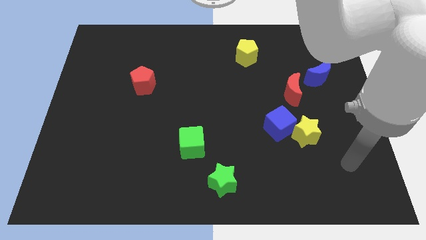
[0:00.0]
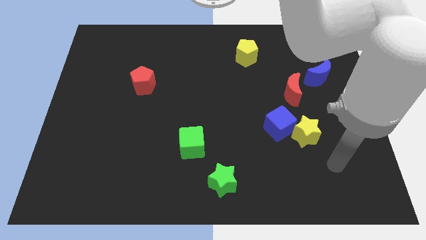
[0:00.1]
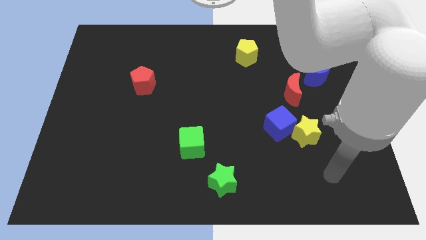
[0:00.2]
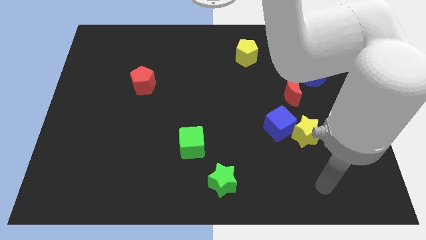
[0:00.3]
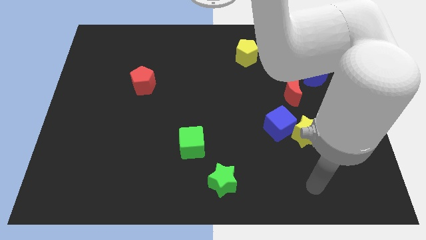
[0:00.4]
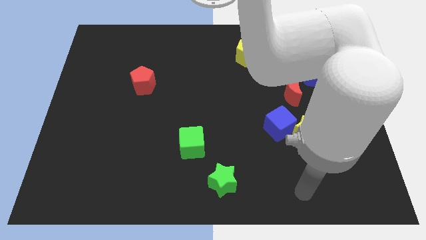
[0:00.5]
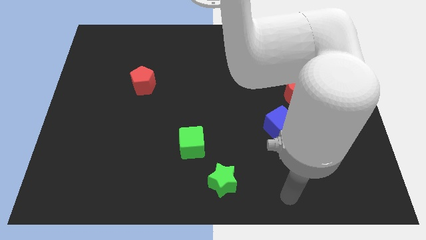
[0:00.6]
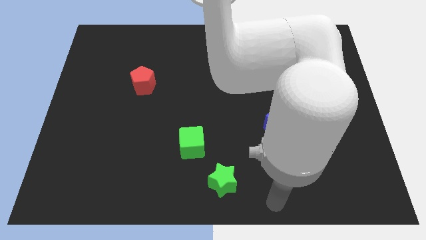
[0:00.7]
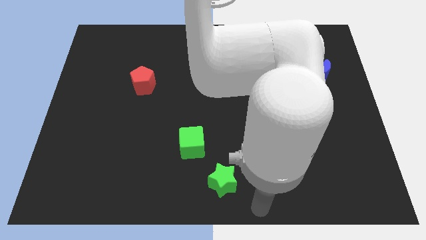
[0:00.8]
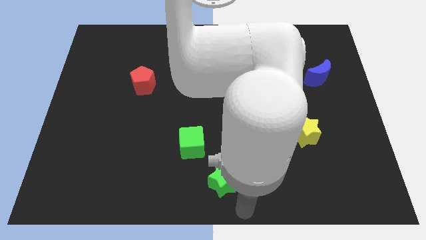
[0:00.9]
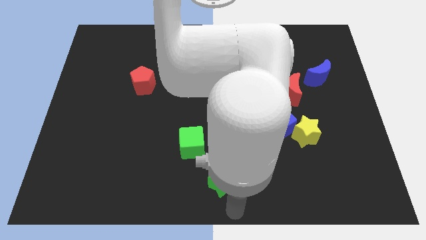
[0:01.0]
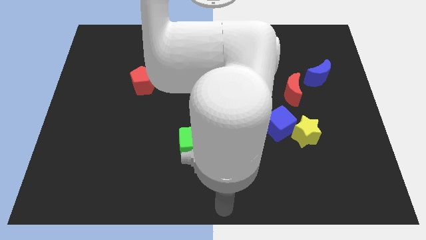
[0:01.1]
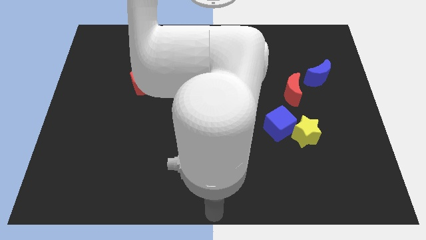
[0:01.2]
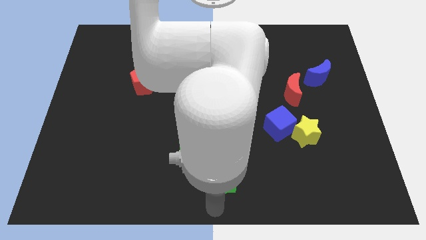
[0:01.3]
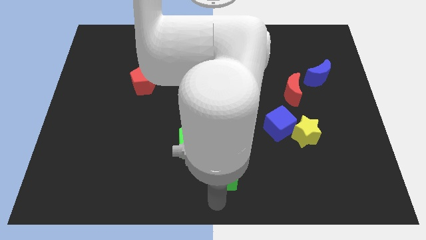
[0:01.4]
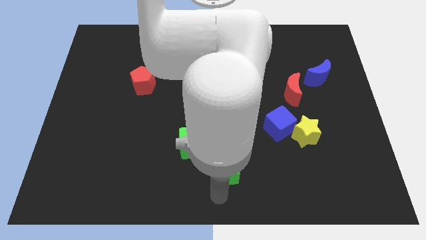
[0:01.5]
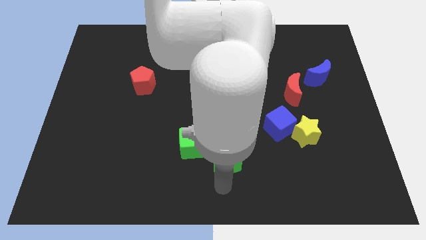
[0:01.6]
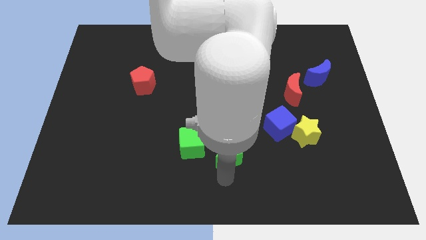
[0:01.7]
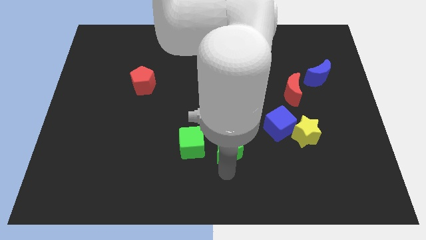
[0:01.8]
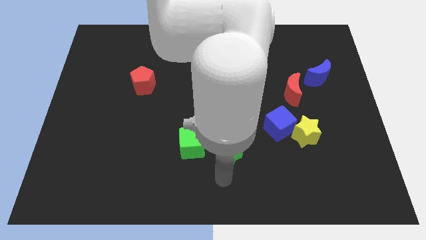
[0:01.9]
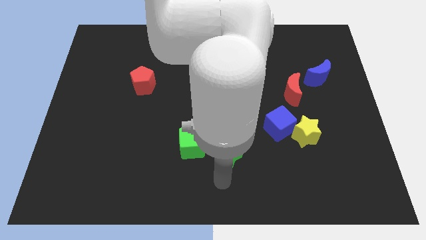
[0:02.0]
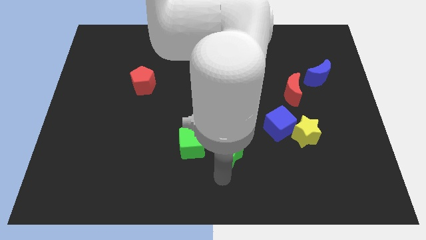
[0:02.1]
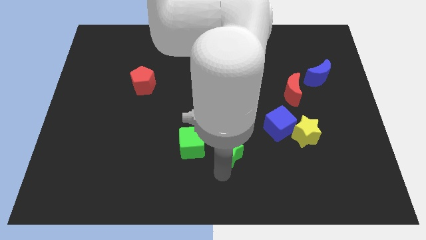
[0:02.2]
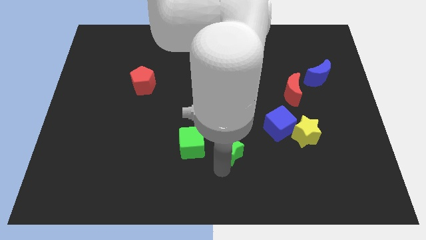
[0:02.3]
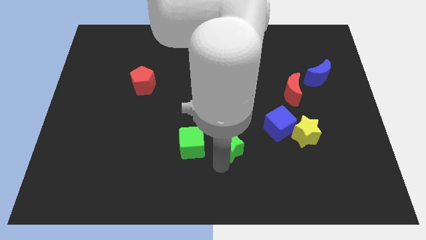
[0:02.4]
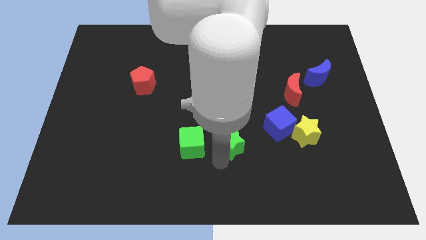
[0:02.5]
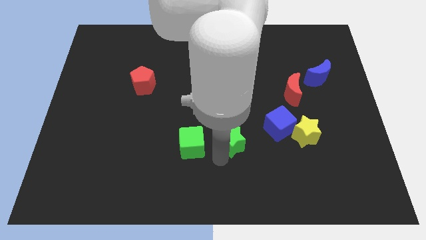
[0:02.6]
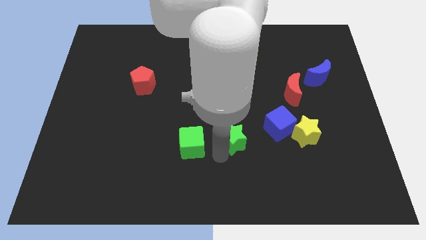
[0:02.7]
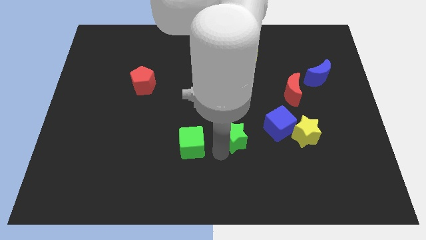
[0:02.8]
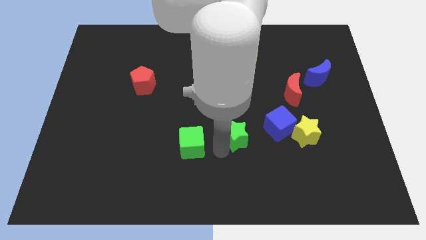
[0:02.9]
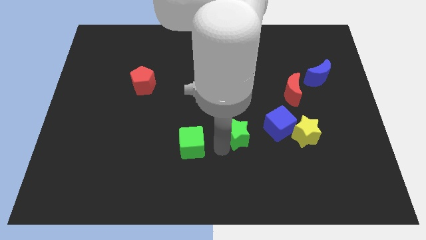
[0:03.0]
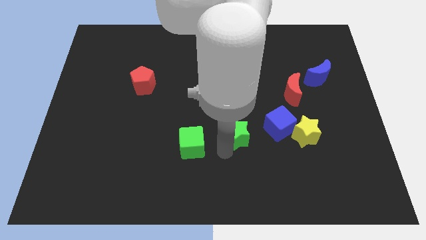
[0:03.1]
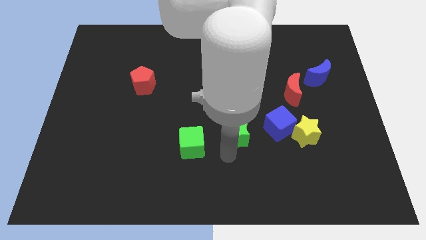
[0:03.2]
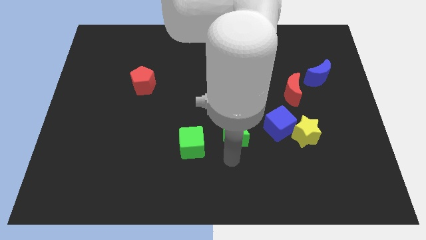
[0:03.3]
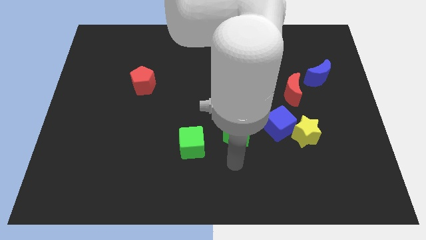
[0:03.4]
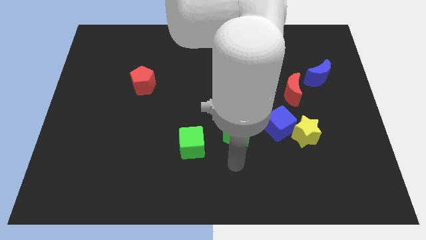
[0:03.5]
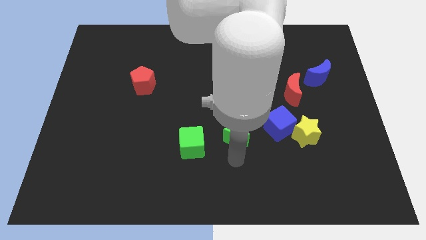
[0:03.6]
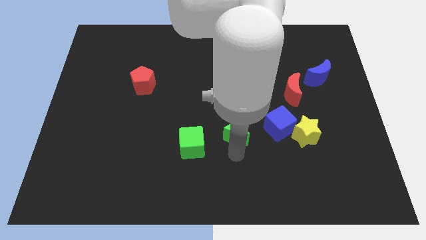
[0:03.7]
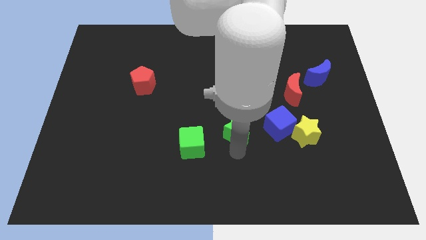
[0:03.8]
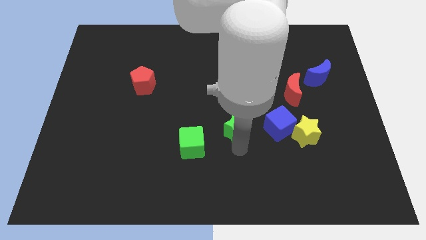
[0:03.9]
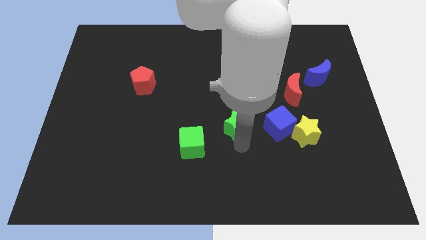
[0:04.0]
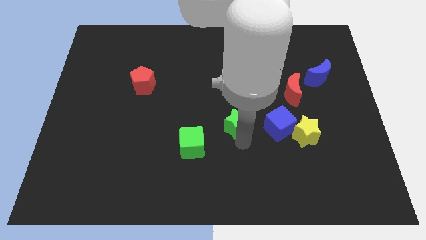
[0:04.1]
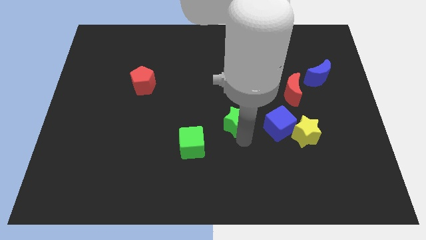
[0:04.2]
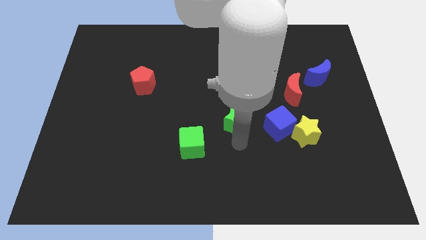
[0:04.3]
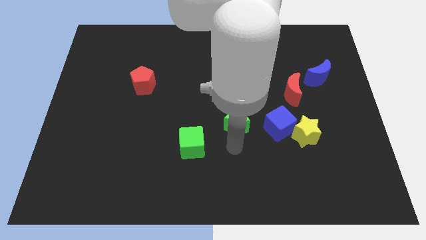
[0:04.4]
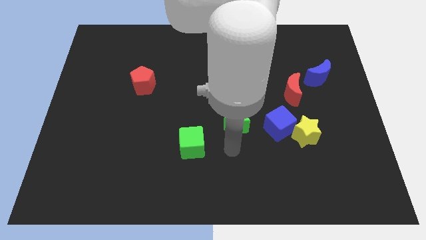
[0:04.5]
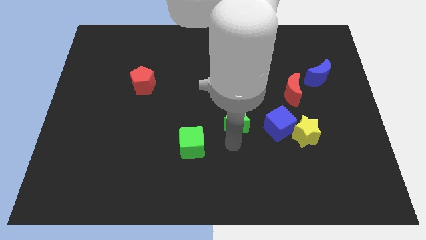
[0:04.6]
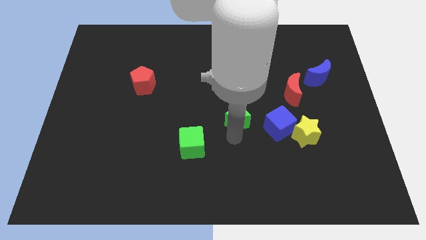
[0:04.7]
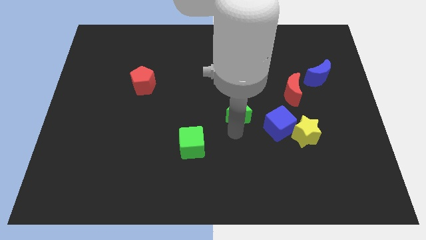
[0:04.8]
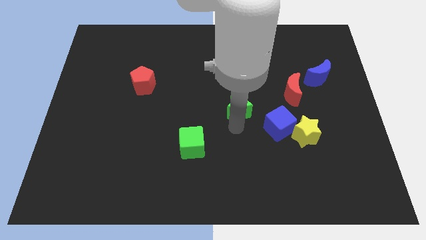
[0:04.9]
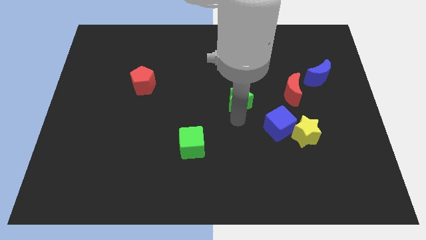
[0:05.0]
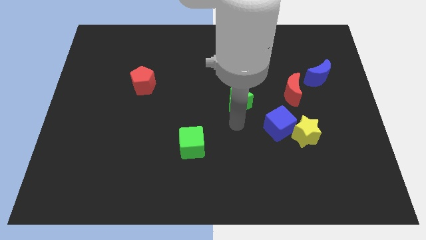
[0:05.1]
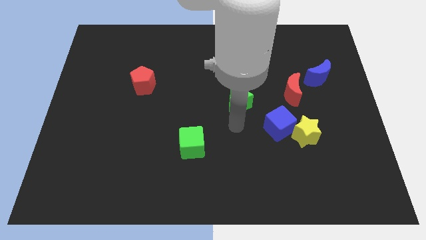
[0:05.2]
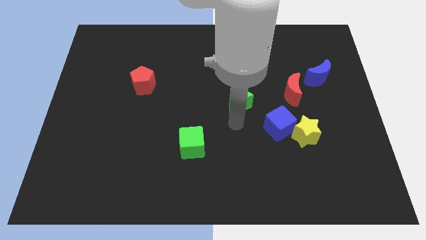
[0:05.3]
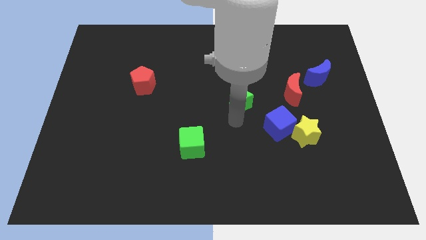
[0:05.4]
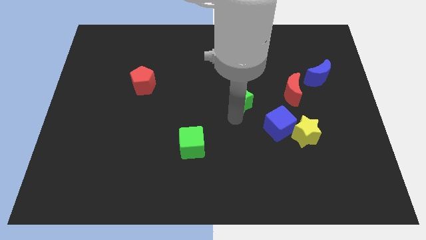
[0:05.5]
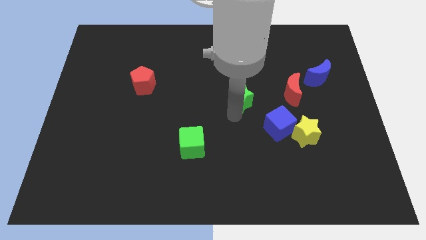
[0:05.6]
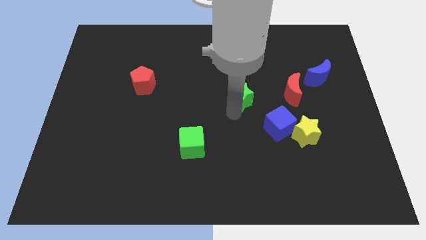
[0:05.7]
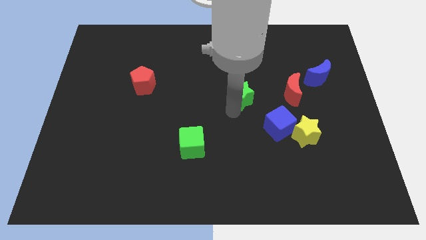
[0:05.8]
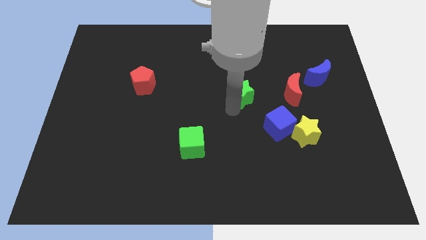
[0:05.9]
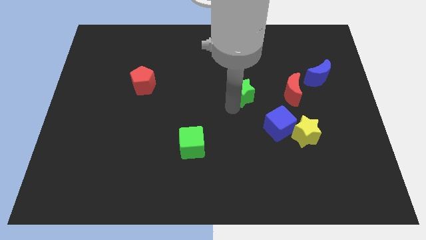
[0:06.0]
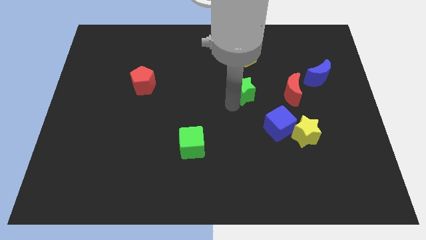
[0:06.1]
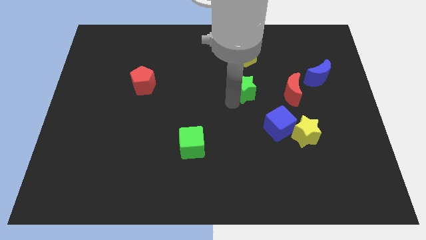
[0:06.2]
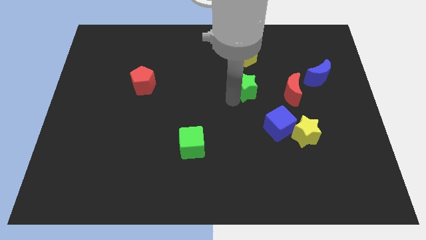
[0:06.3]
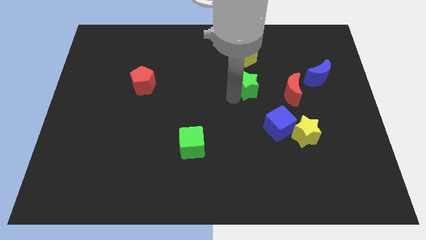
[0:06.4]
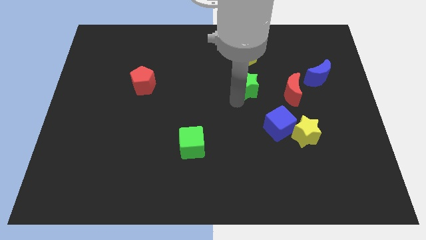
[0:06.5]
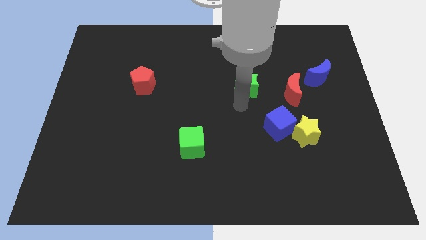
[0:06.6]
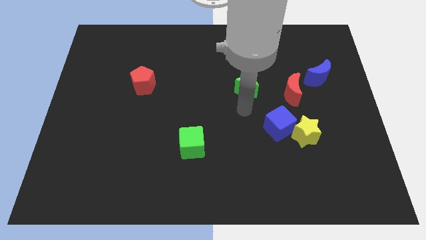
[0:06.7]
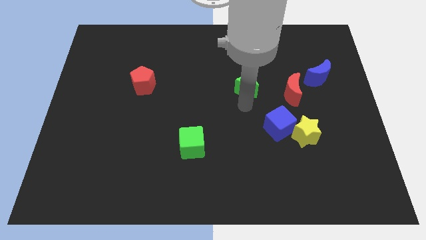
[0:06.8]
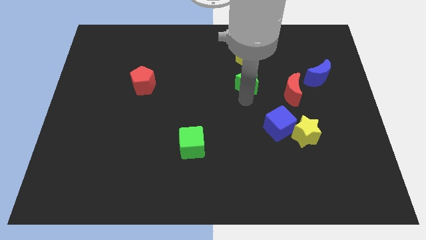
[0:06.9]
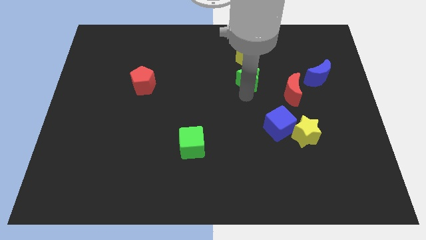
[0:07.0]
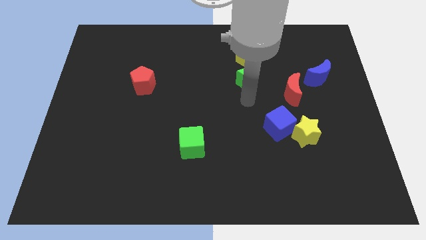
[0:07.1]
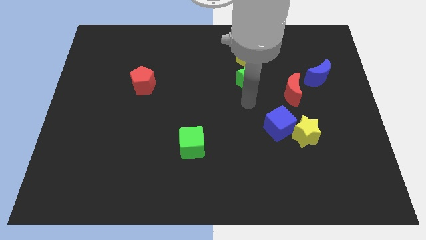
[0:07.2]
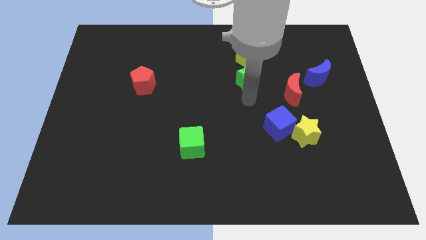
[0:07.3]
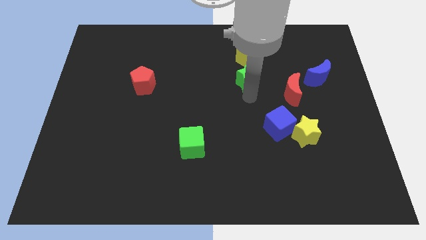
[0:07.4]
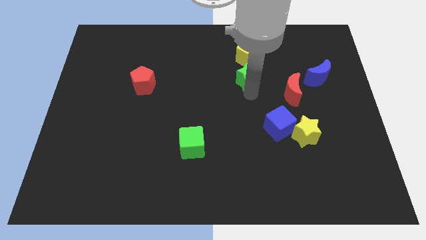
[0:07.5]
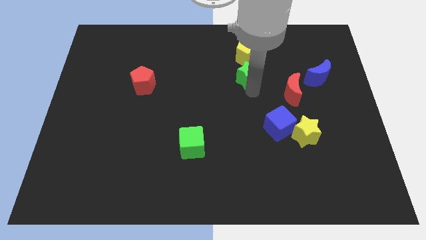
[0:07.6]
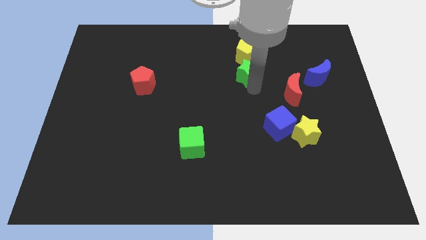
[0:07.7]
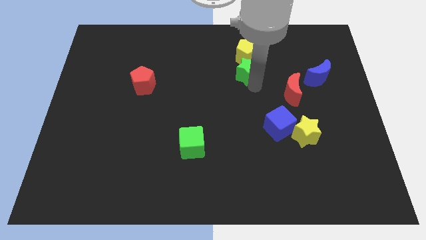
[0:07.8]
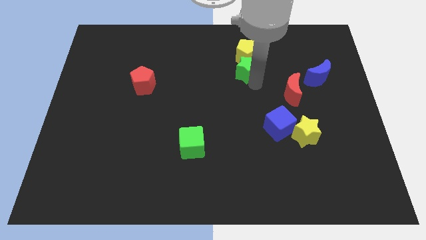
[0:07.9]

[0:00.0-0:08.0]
slide the green star towards the yellow pentagon
